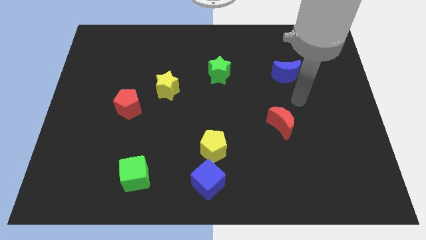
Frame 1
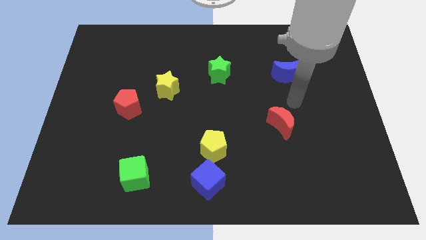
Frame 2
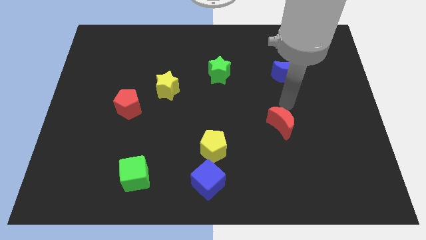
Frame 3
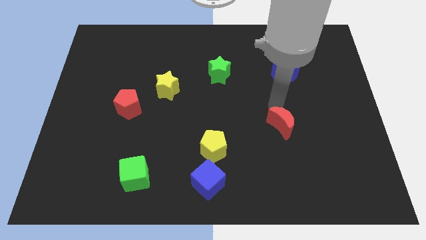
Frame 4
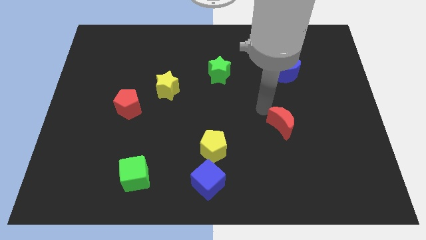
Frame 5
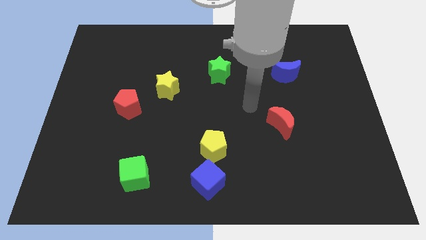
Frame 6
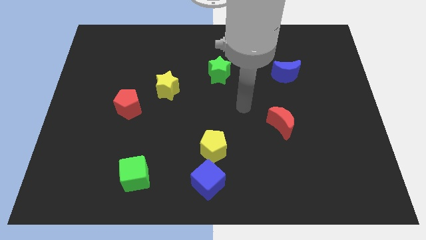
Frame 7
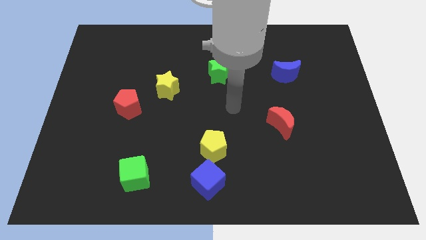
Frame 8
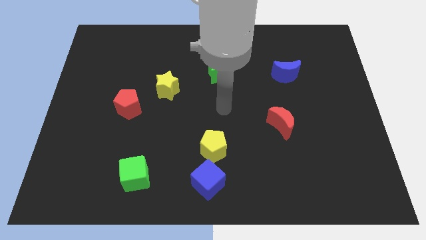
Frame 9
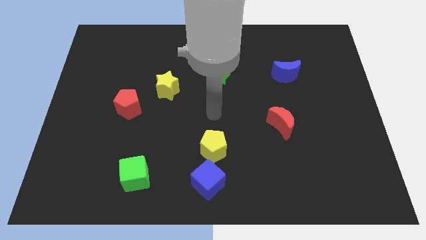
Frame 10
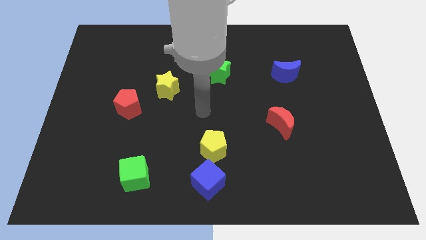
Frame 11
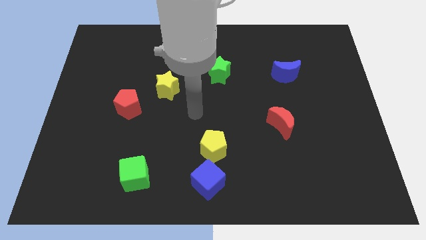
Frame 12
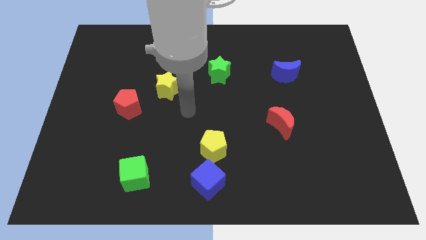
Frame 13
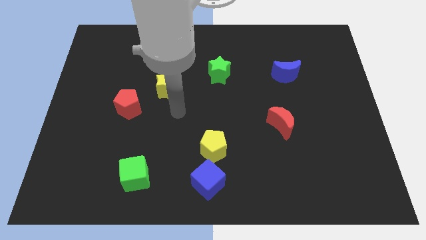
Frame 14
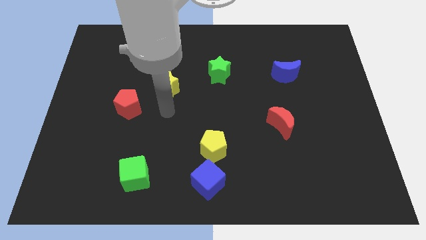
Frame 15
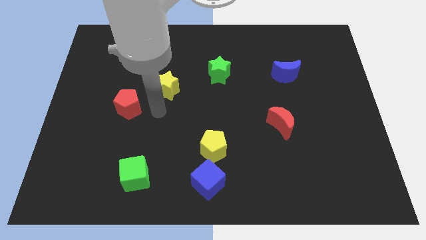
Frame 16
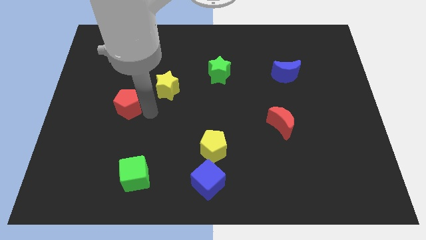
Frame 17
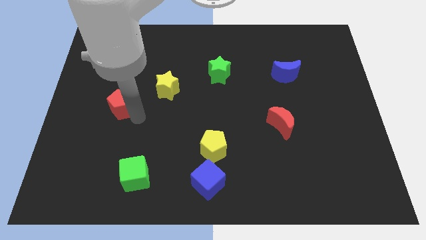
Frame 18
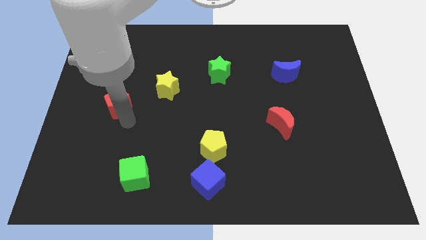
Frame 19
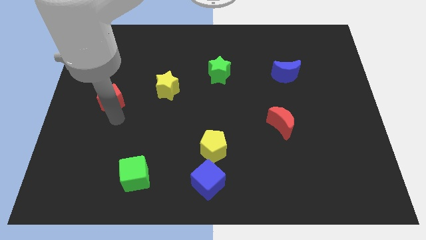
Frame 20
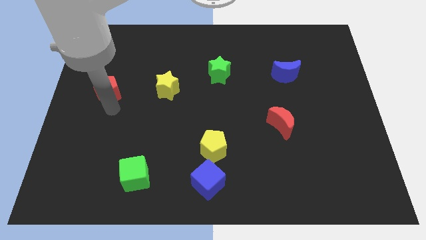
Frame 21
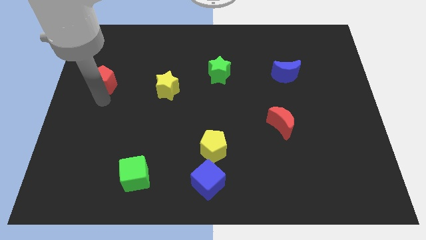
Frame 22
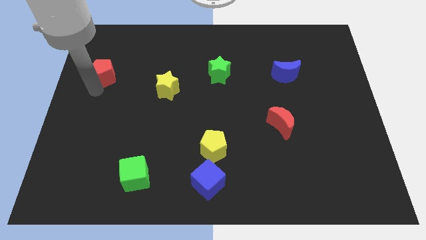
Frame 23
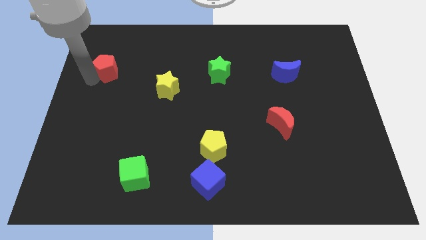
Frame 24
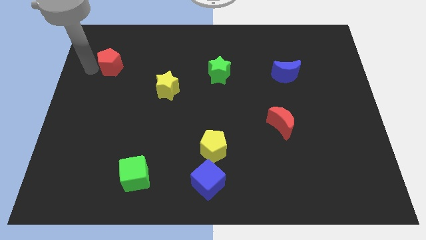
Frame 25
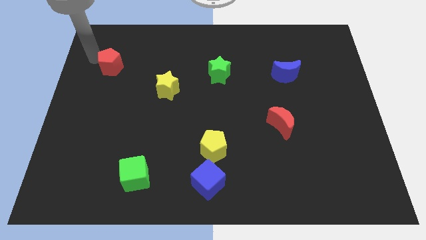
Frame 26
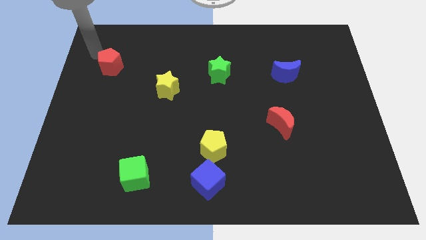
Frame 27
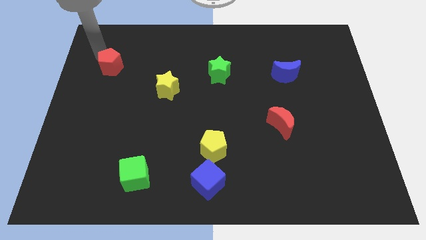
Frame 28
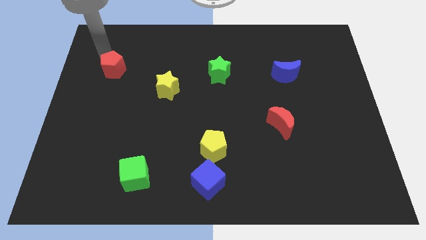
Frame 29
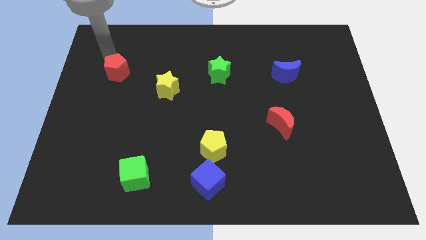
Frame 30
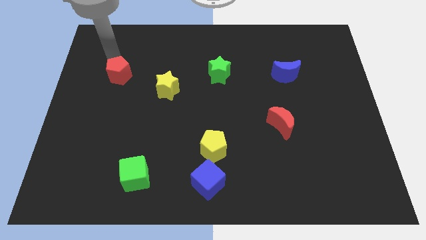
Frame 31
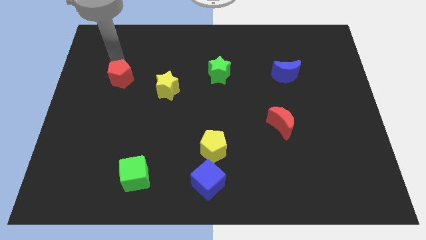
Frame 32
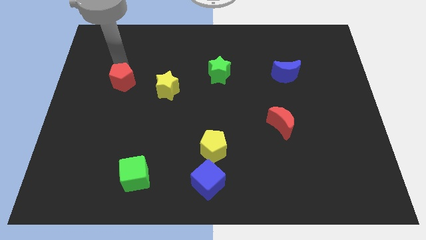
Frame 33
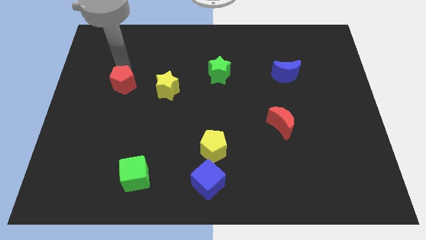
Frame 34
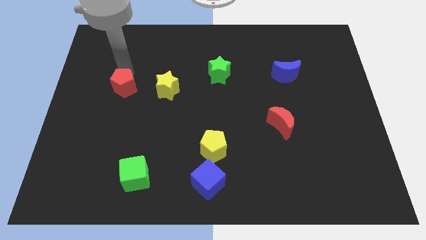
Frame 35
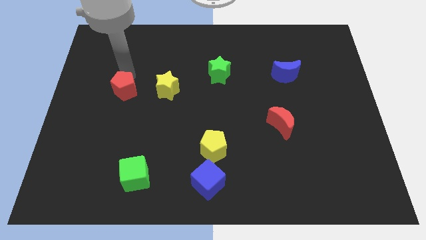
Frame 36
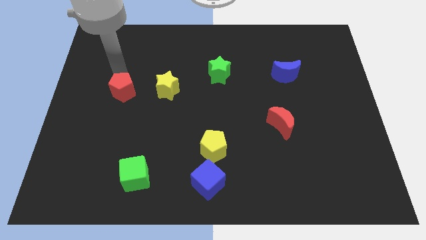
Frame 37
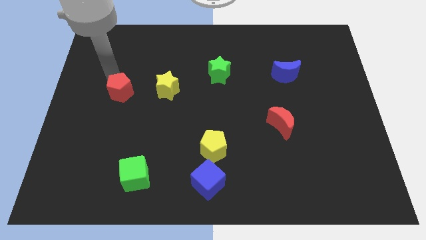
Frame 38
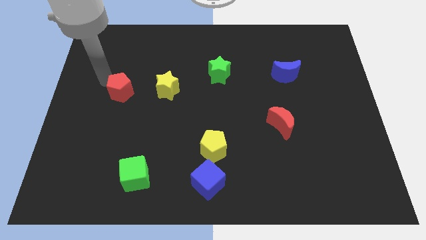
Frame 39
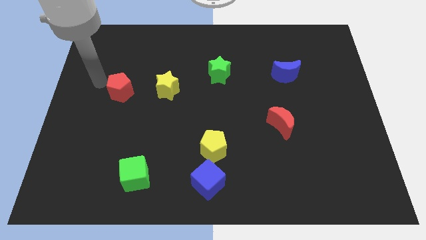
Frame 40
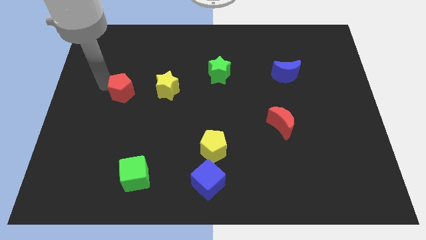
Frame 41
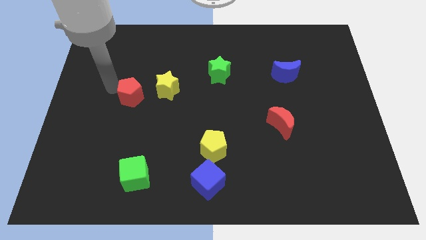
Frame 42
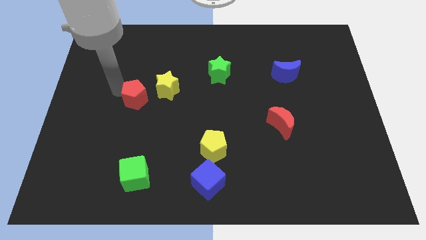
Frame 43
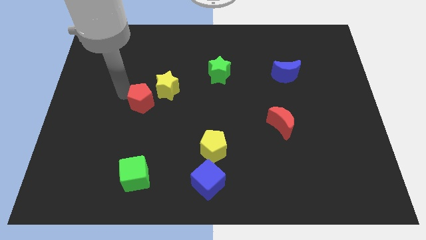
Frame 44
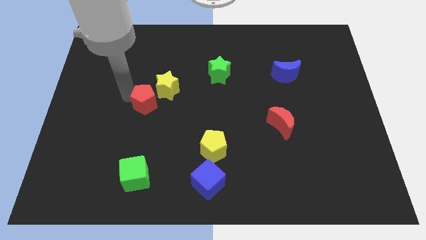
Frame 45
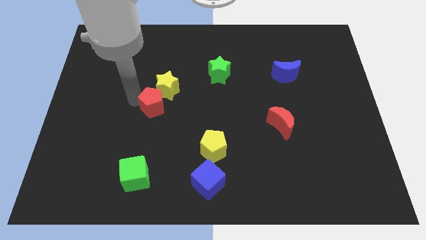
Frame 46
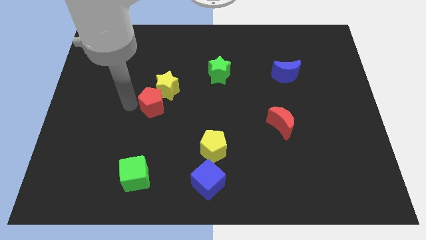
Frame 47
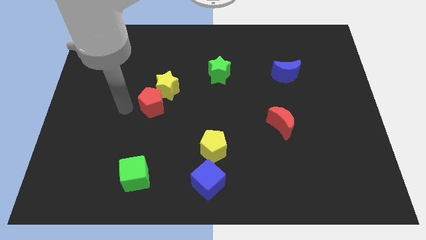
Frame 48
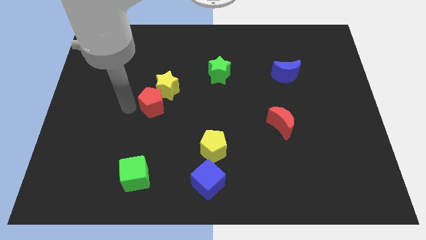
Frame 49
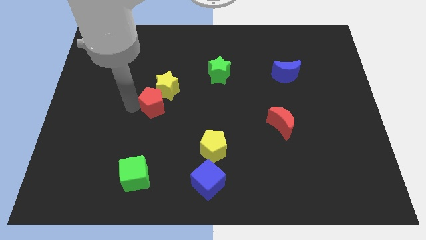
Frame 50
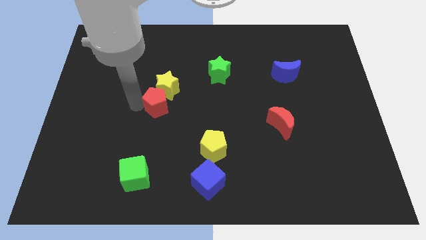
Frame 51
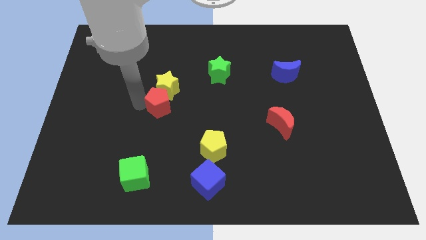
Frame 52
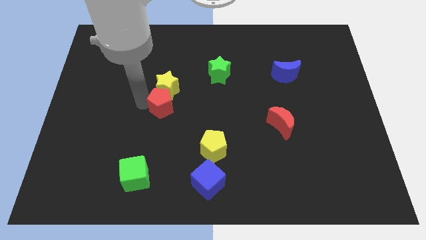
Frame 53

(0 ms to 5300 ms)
move the red pentagon to the center

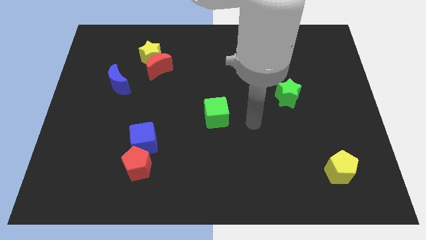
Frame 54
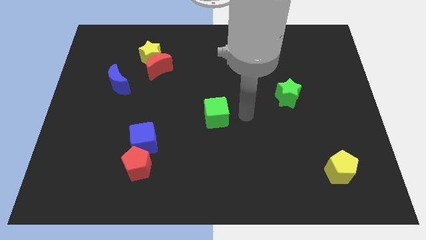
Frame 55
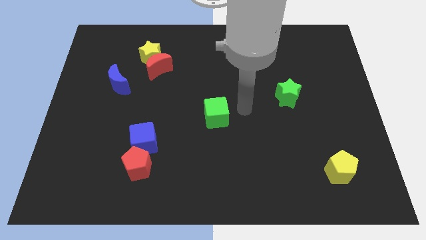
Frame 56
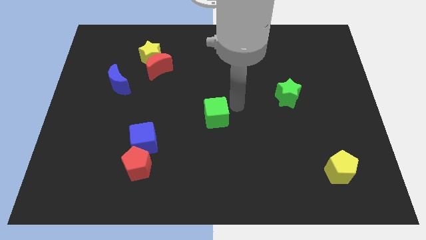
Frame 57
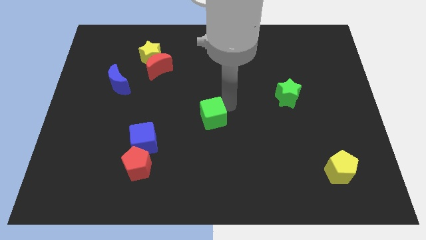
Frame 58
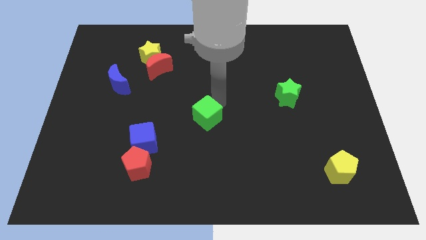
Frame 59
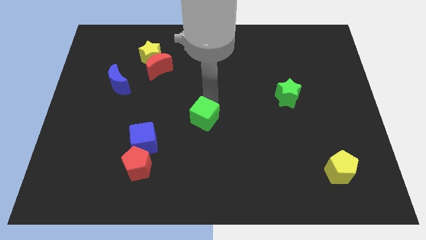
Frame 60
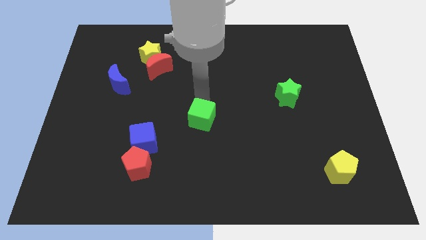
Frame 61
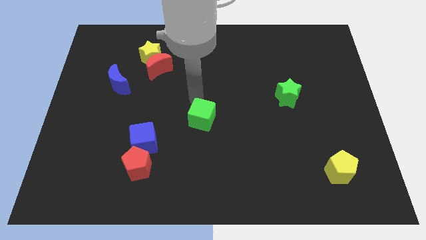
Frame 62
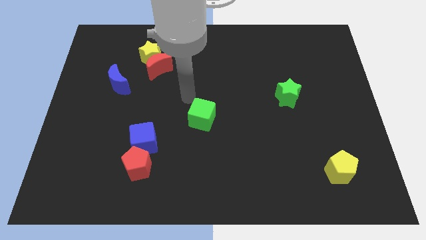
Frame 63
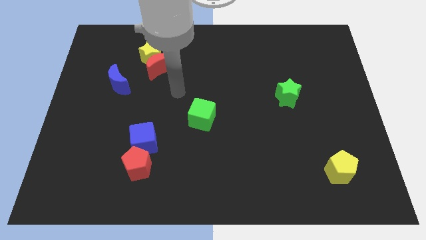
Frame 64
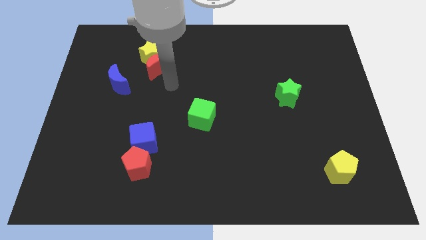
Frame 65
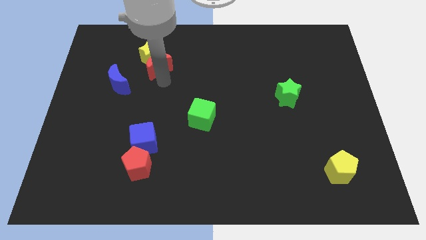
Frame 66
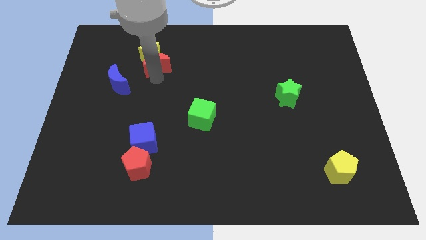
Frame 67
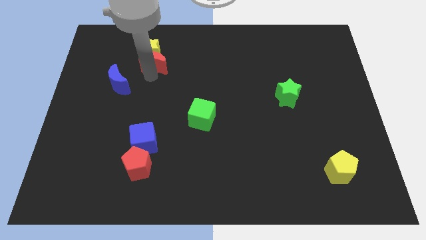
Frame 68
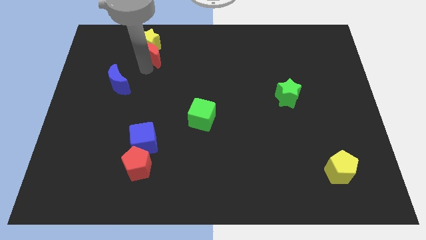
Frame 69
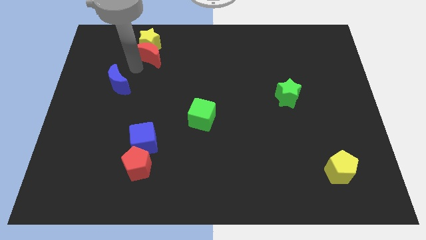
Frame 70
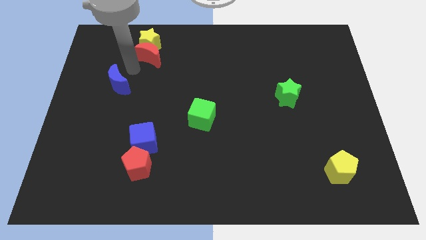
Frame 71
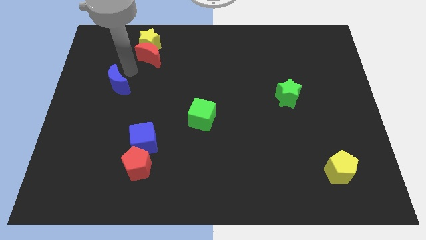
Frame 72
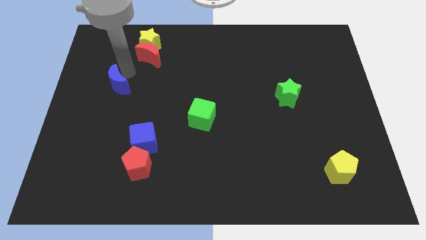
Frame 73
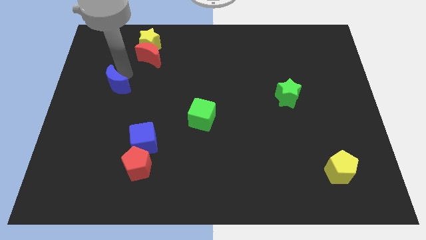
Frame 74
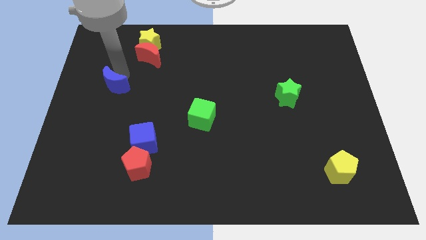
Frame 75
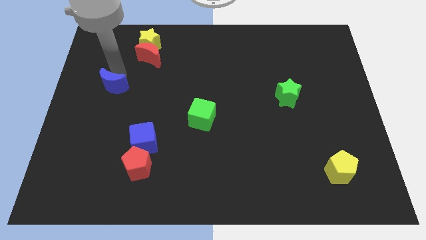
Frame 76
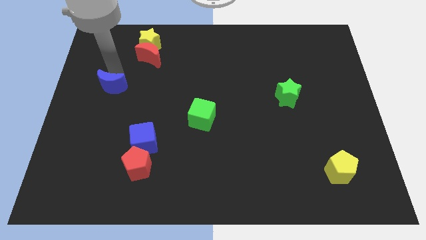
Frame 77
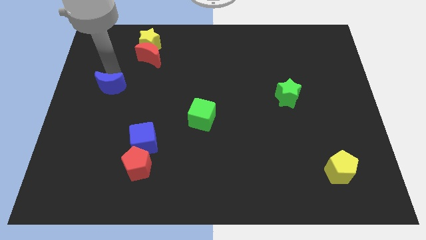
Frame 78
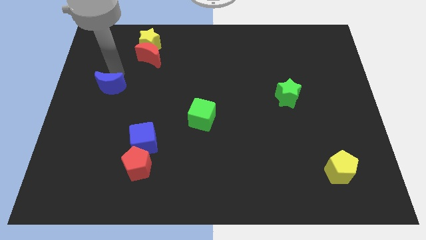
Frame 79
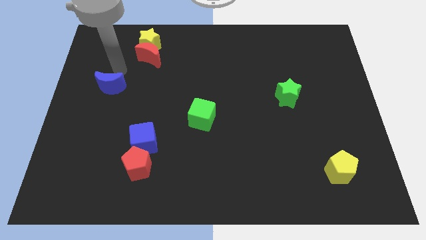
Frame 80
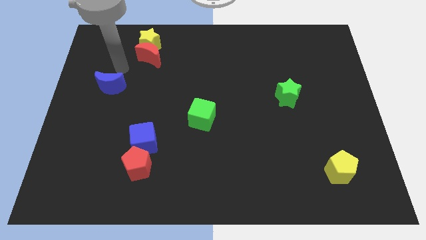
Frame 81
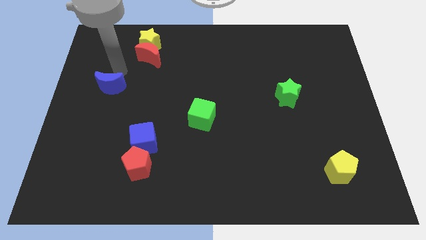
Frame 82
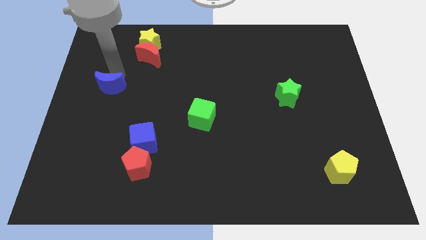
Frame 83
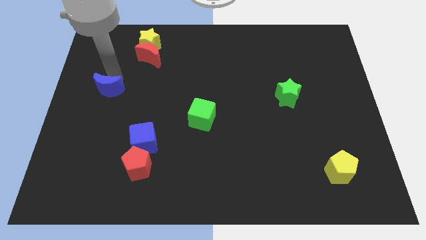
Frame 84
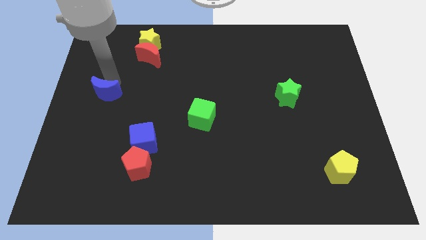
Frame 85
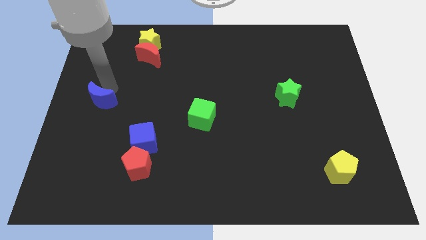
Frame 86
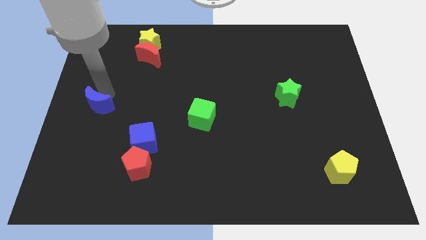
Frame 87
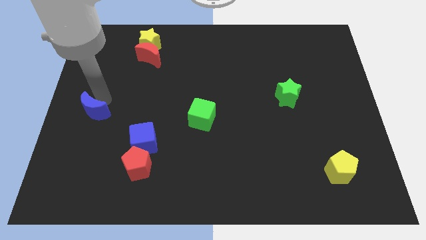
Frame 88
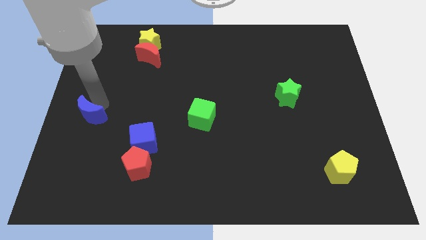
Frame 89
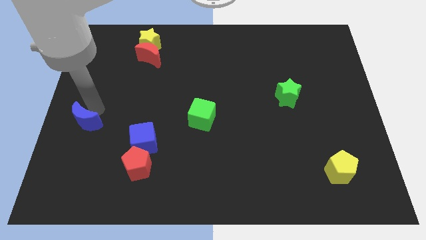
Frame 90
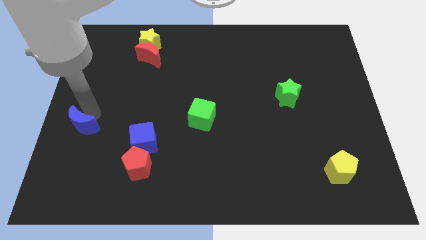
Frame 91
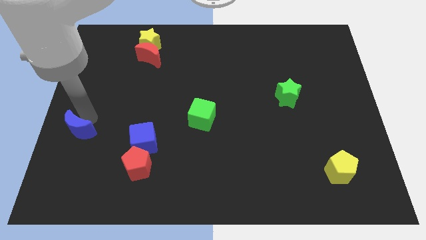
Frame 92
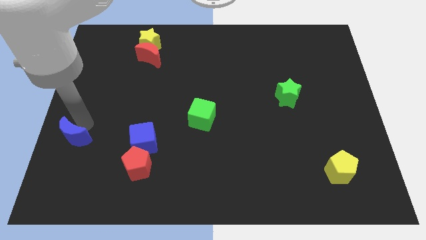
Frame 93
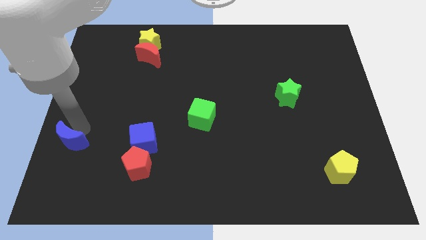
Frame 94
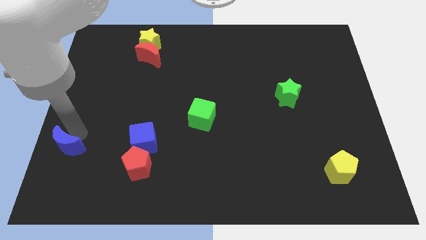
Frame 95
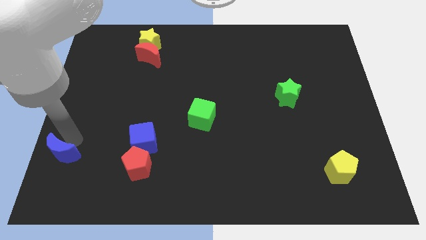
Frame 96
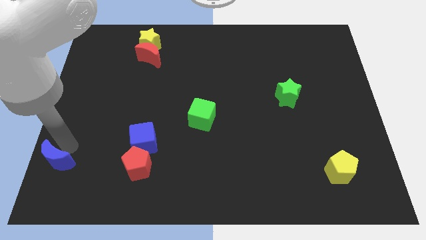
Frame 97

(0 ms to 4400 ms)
push the blue moon to the lower left corner
